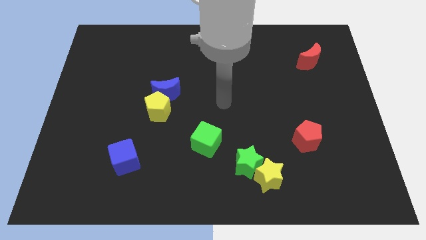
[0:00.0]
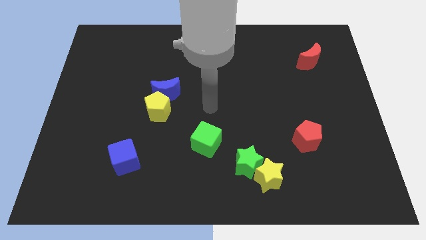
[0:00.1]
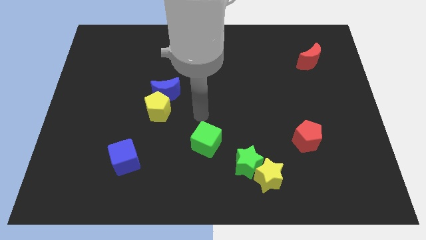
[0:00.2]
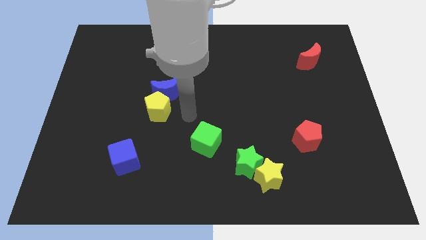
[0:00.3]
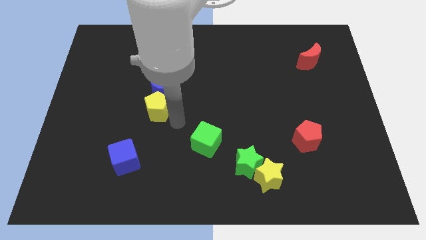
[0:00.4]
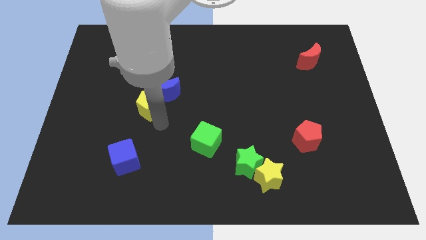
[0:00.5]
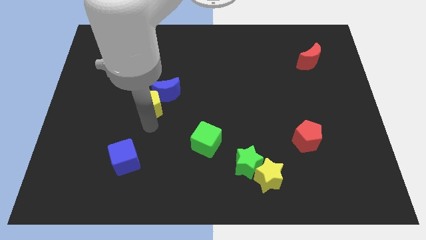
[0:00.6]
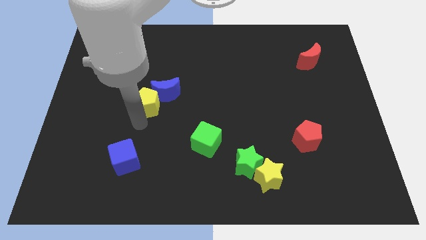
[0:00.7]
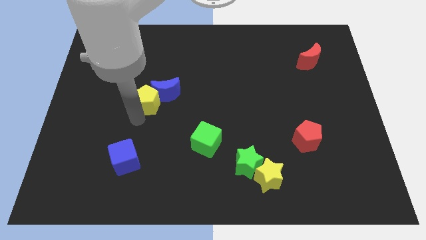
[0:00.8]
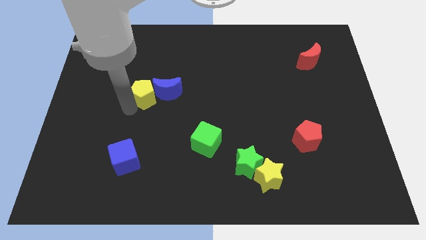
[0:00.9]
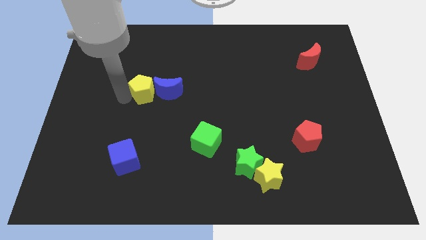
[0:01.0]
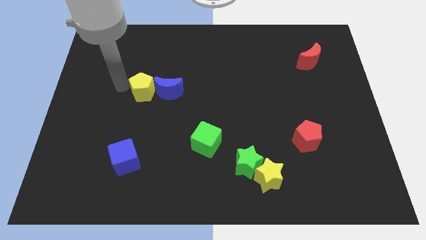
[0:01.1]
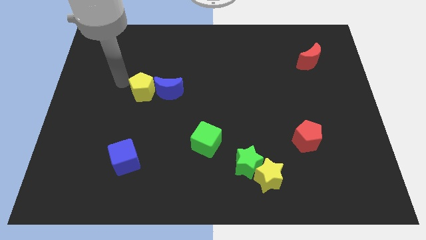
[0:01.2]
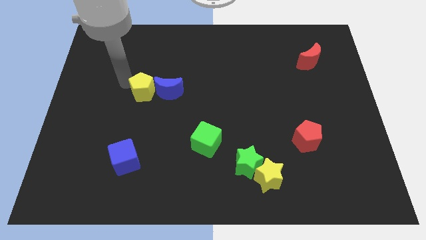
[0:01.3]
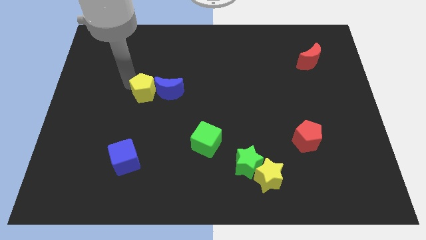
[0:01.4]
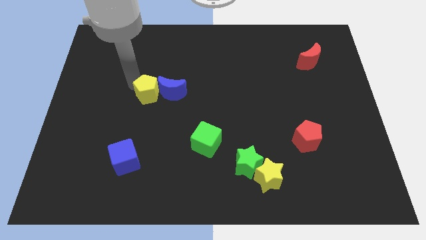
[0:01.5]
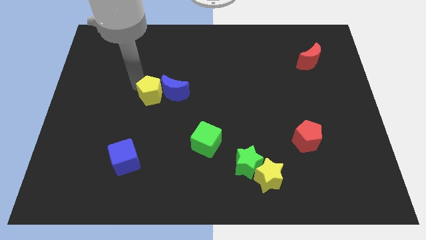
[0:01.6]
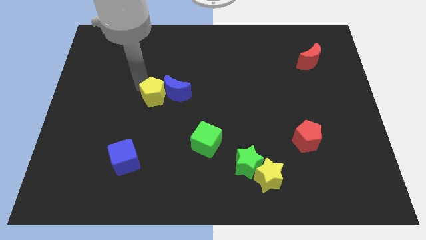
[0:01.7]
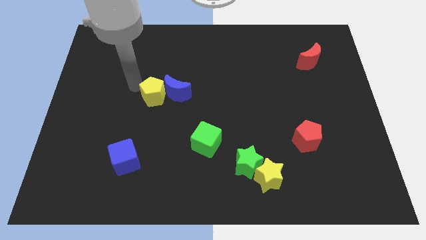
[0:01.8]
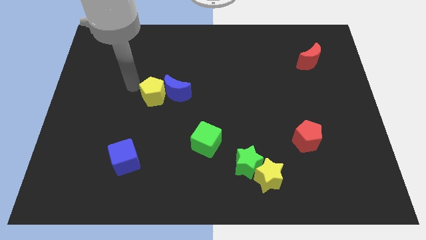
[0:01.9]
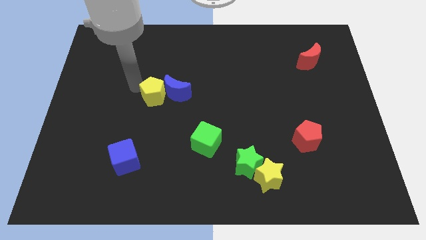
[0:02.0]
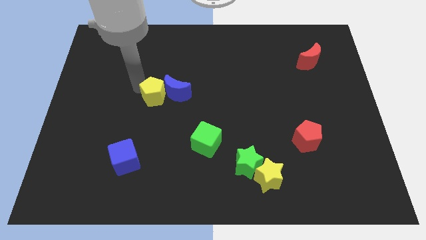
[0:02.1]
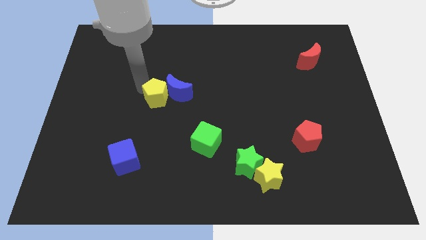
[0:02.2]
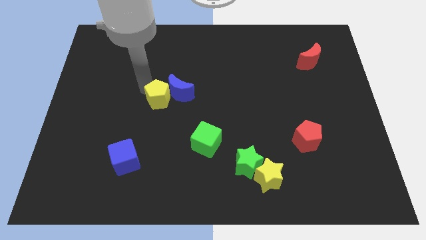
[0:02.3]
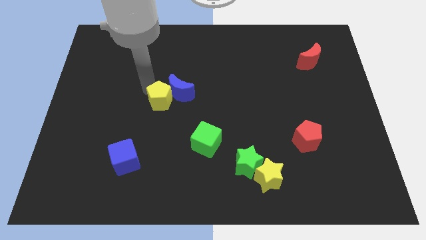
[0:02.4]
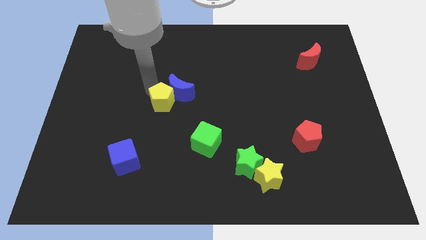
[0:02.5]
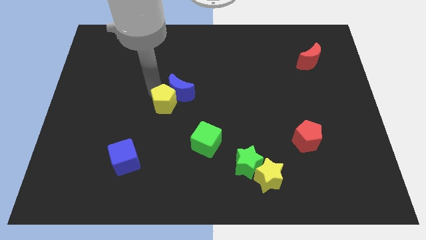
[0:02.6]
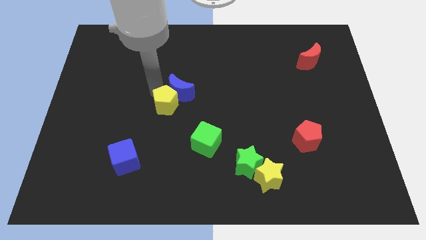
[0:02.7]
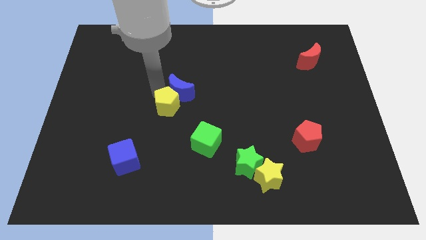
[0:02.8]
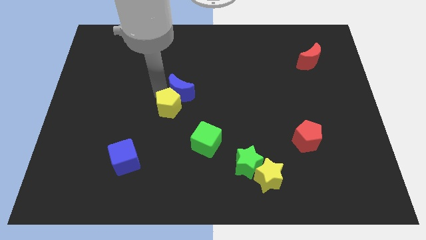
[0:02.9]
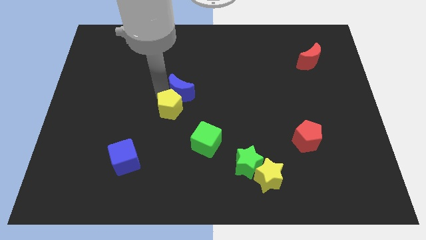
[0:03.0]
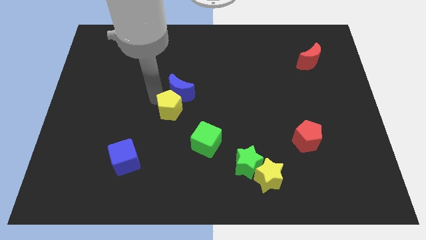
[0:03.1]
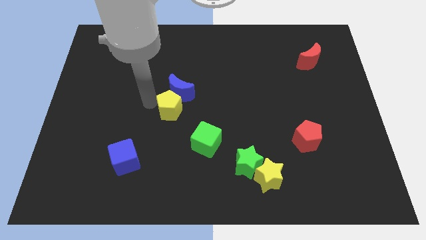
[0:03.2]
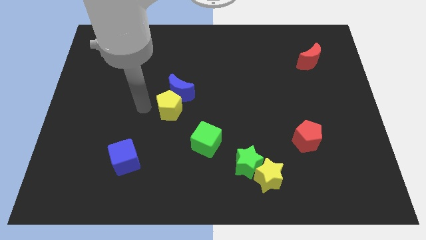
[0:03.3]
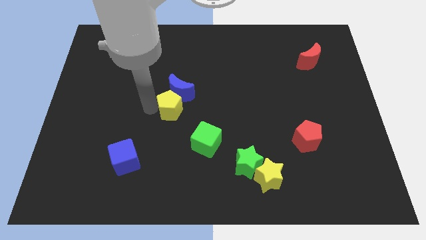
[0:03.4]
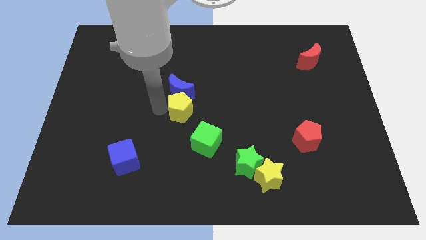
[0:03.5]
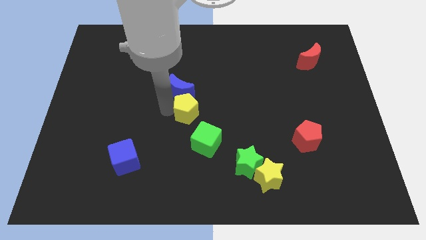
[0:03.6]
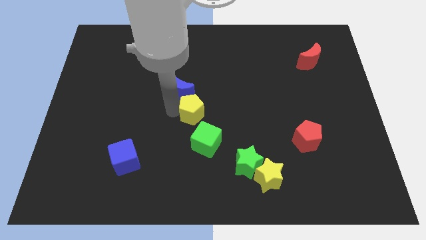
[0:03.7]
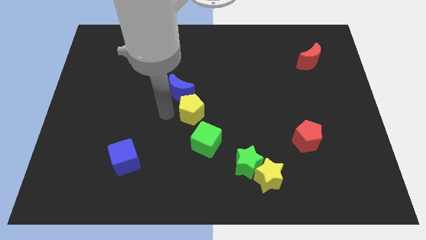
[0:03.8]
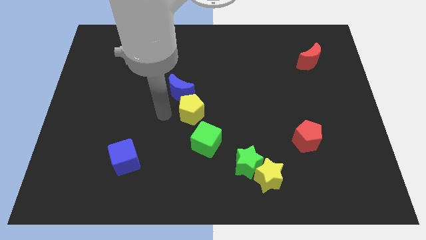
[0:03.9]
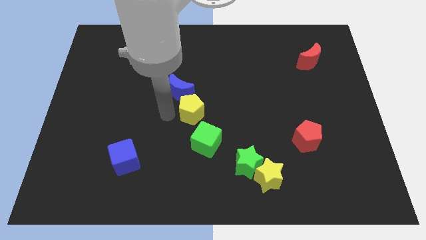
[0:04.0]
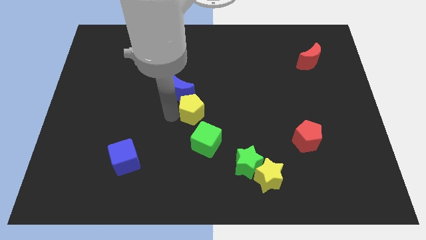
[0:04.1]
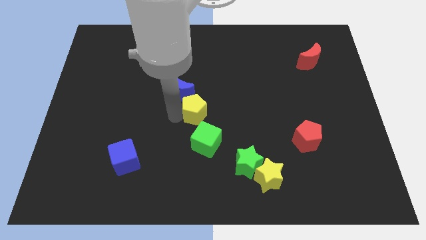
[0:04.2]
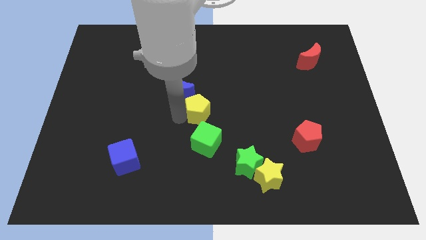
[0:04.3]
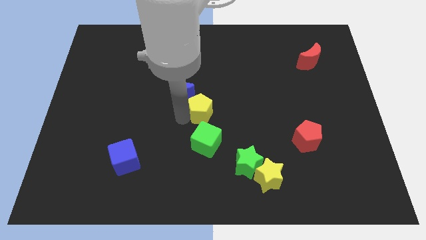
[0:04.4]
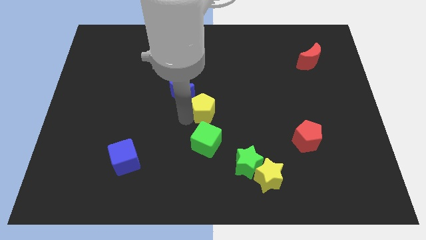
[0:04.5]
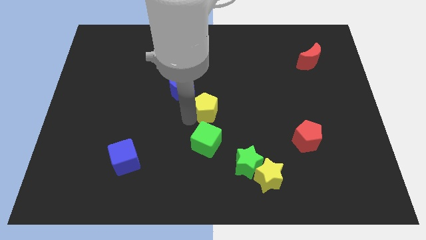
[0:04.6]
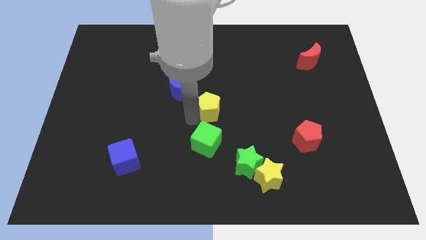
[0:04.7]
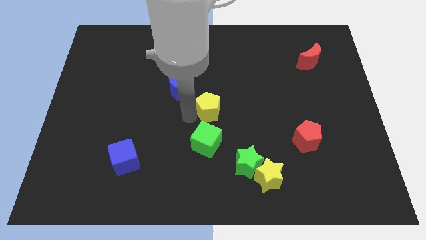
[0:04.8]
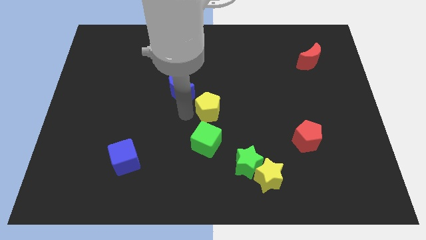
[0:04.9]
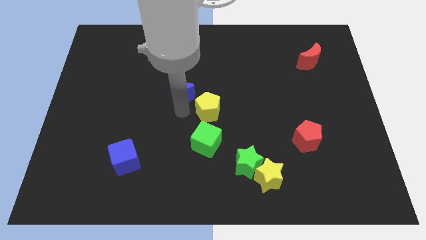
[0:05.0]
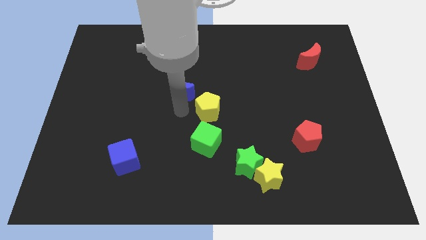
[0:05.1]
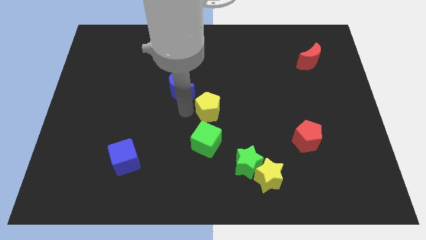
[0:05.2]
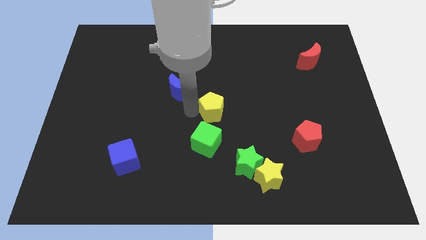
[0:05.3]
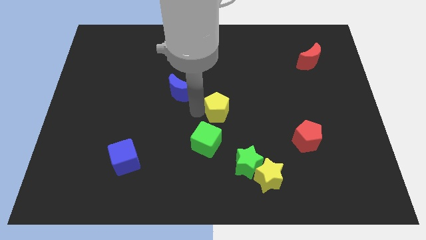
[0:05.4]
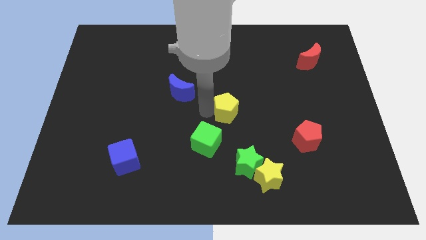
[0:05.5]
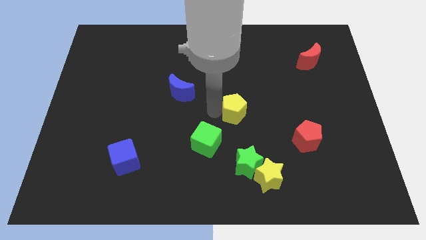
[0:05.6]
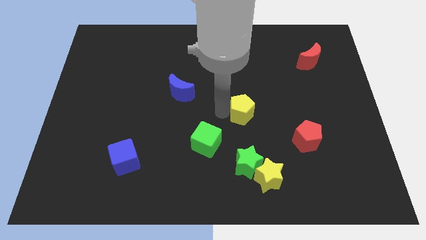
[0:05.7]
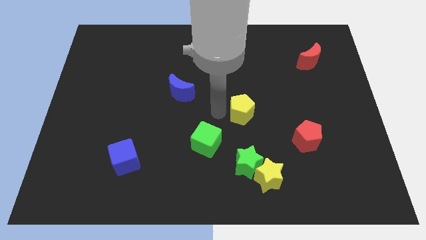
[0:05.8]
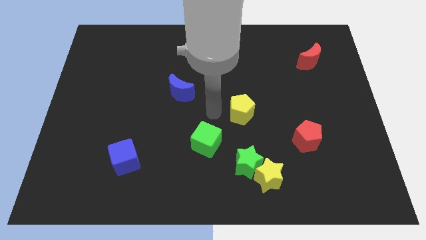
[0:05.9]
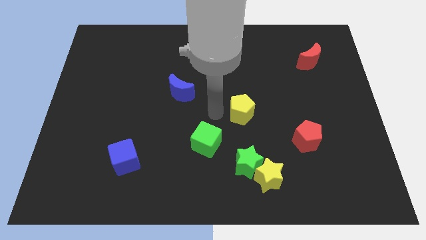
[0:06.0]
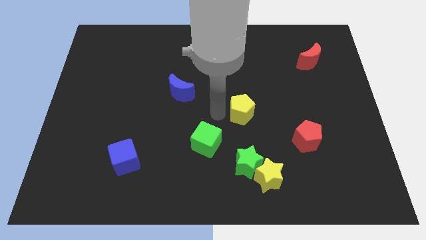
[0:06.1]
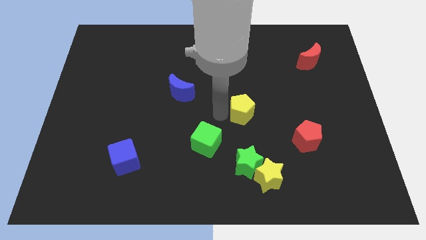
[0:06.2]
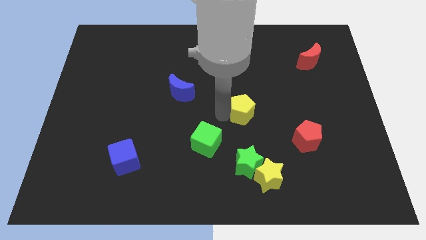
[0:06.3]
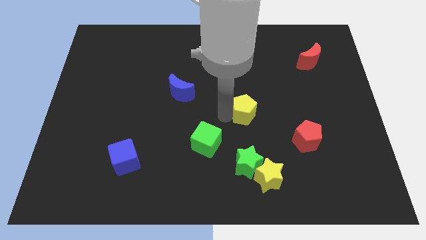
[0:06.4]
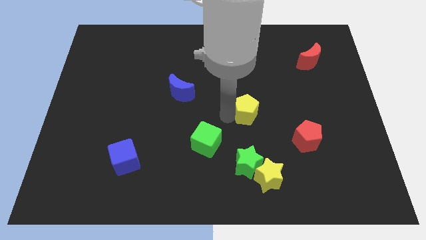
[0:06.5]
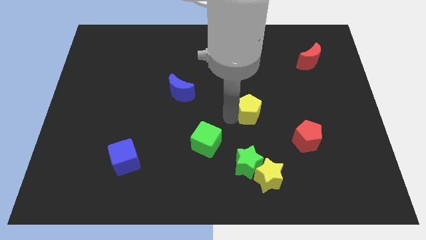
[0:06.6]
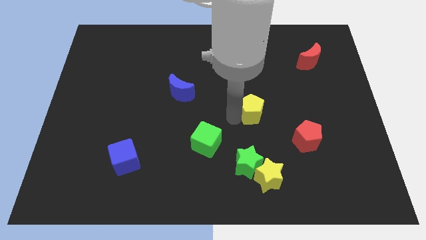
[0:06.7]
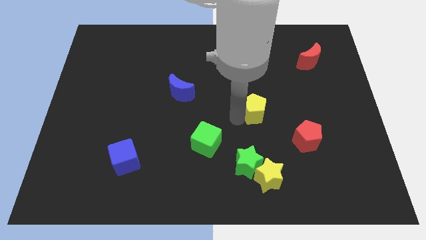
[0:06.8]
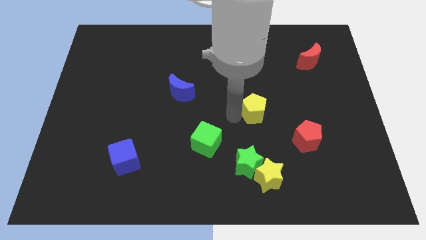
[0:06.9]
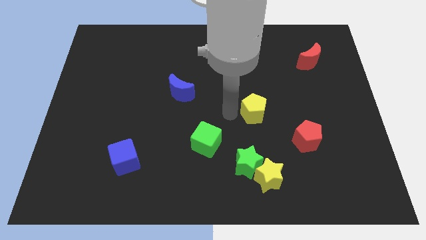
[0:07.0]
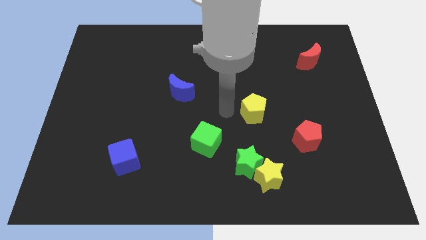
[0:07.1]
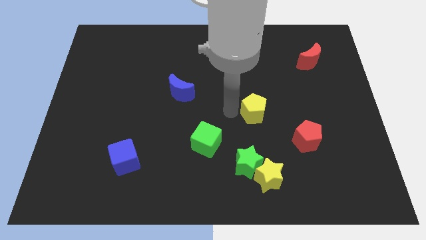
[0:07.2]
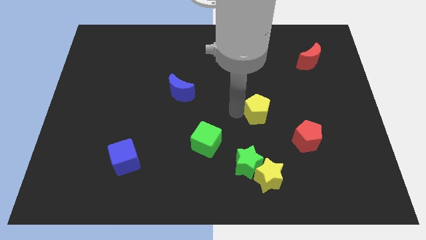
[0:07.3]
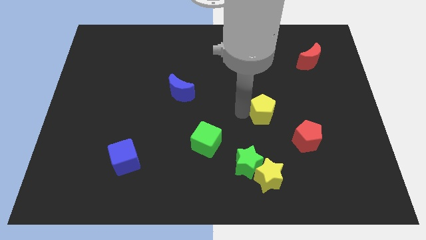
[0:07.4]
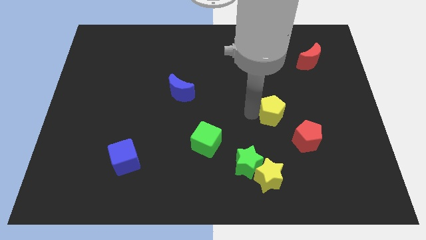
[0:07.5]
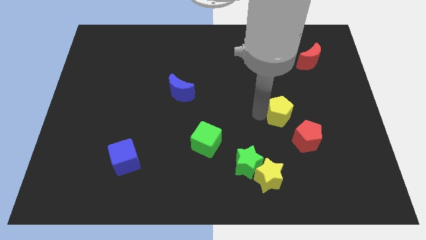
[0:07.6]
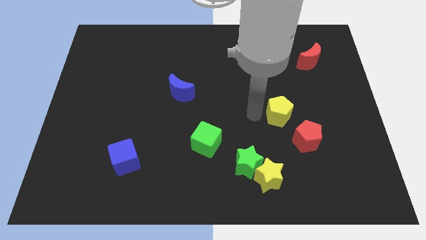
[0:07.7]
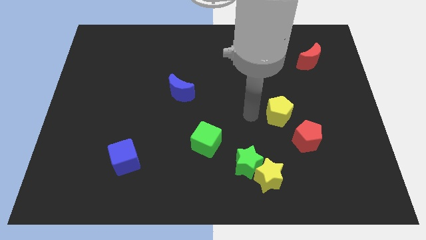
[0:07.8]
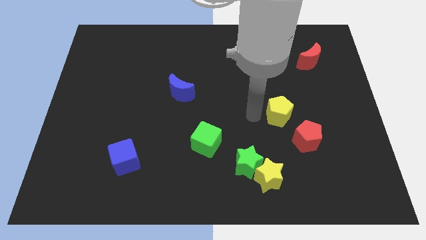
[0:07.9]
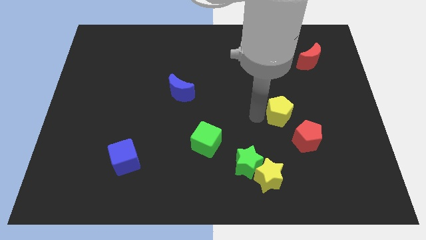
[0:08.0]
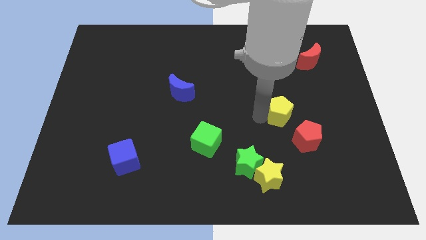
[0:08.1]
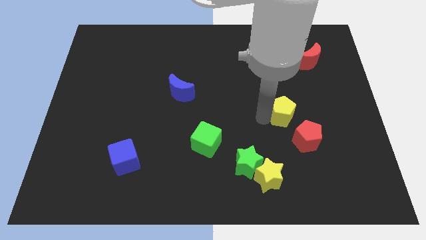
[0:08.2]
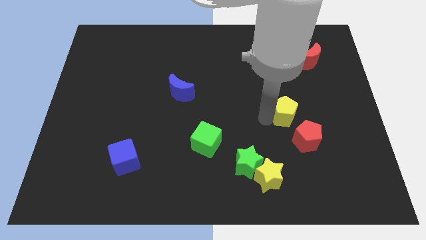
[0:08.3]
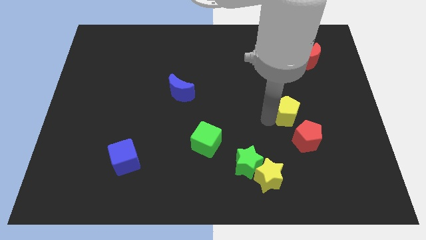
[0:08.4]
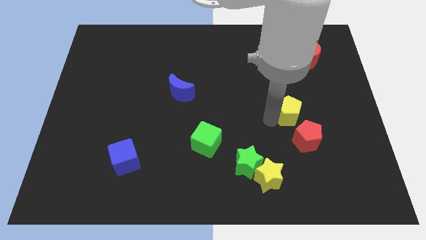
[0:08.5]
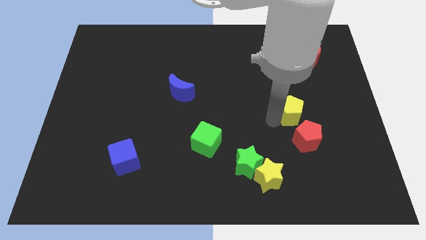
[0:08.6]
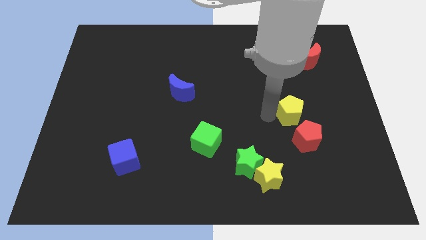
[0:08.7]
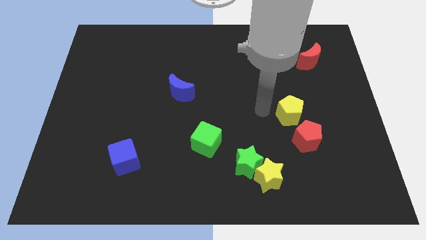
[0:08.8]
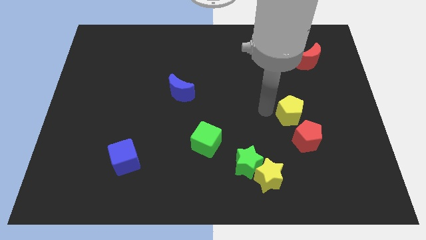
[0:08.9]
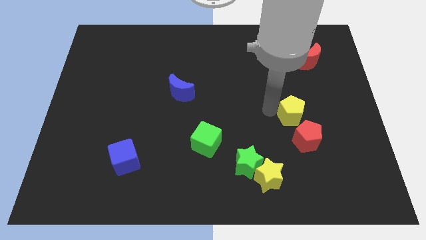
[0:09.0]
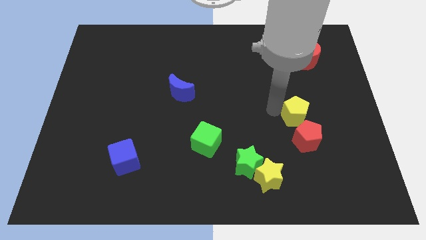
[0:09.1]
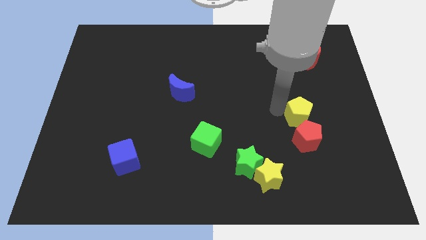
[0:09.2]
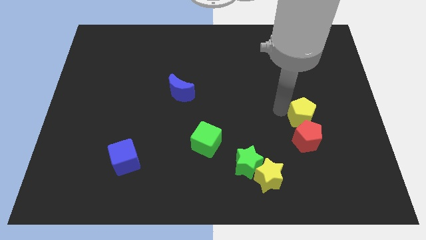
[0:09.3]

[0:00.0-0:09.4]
push the yellow pentagon to the top right of the red pentagon
